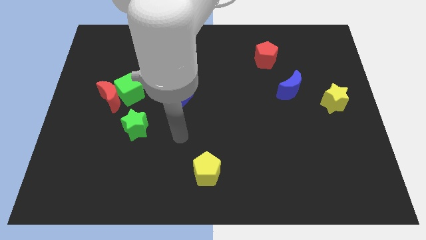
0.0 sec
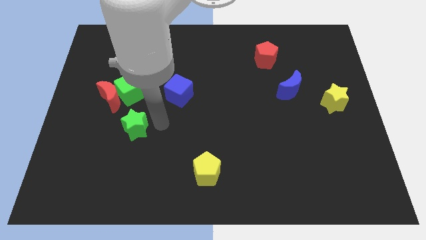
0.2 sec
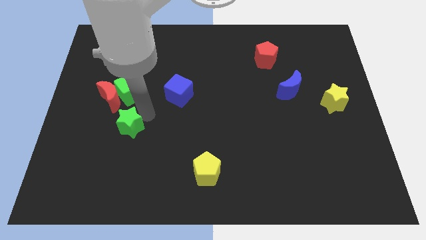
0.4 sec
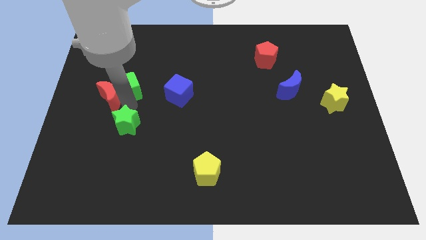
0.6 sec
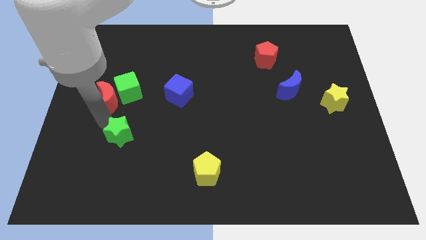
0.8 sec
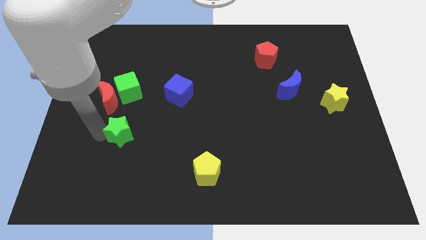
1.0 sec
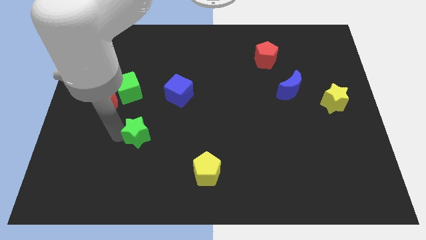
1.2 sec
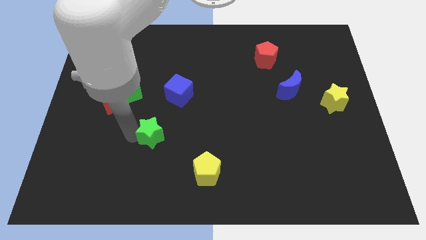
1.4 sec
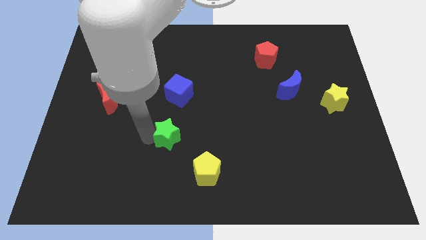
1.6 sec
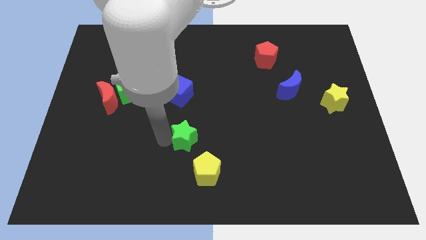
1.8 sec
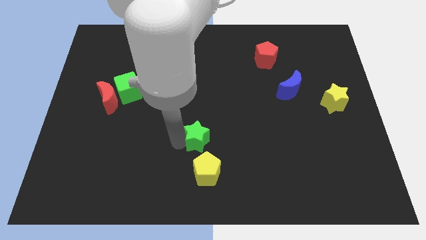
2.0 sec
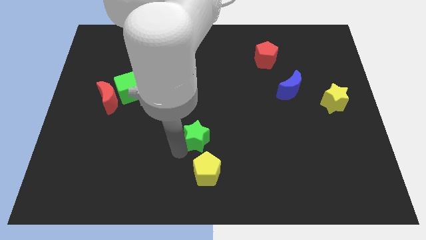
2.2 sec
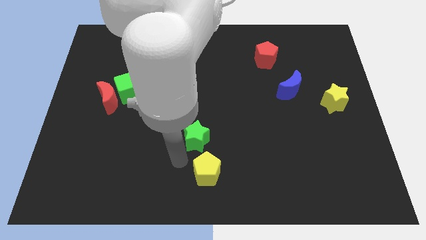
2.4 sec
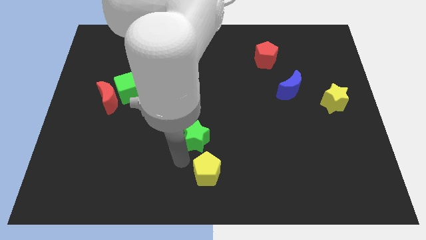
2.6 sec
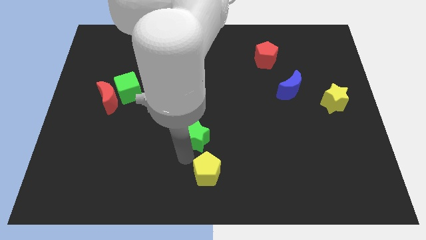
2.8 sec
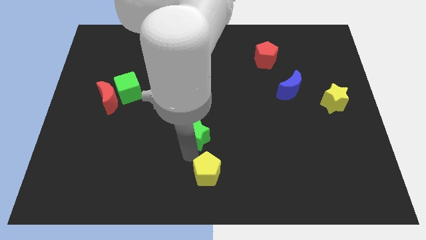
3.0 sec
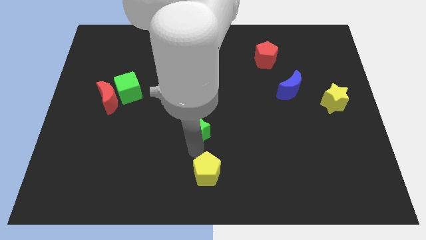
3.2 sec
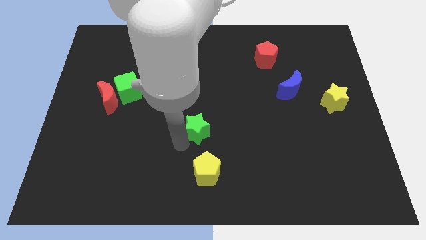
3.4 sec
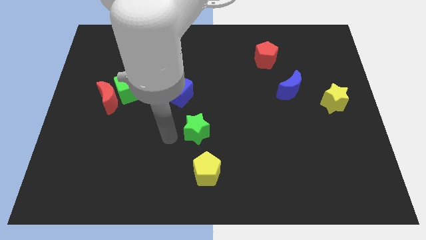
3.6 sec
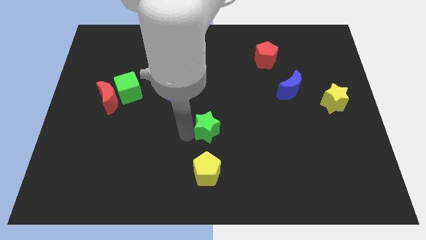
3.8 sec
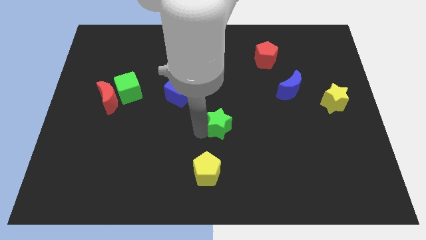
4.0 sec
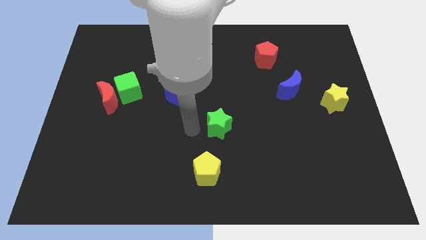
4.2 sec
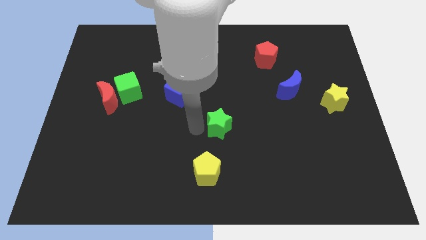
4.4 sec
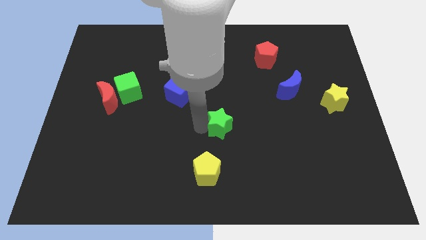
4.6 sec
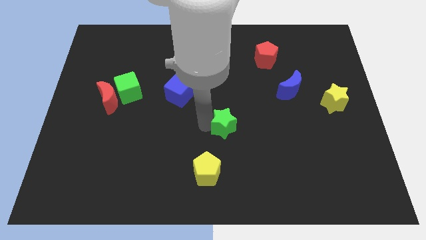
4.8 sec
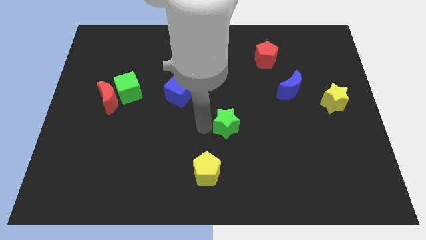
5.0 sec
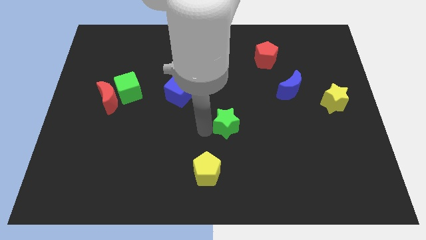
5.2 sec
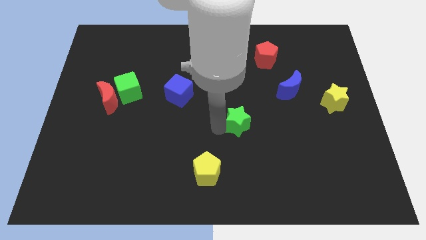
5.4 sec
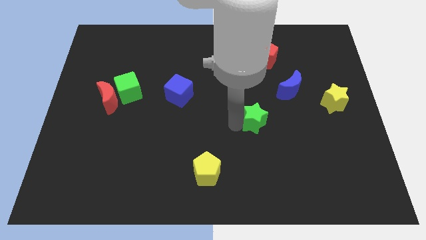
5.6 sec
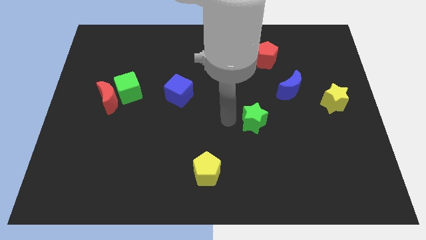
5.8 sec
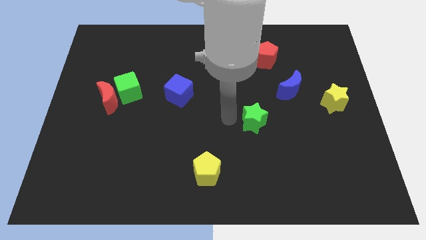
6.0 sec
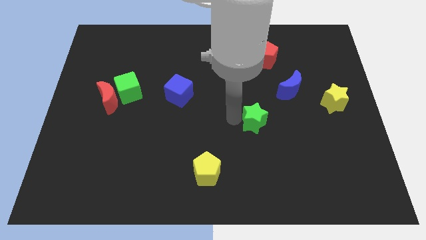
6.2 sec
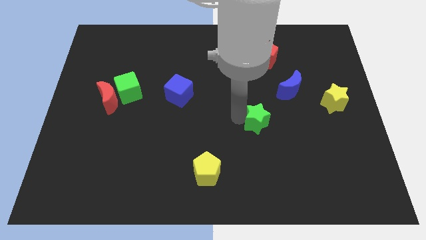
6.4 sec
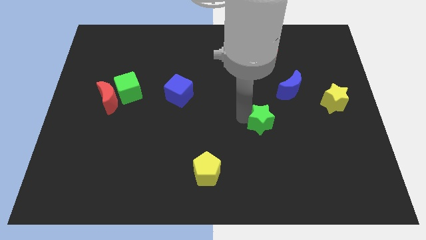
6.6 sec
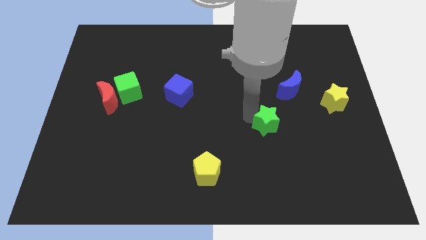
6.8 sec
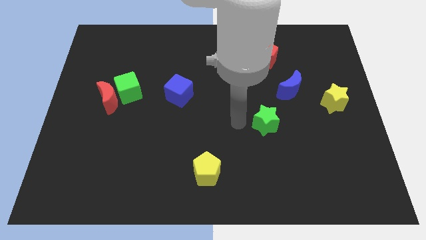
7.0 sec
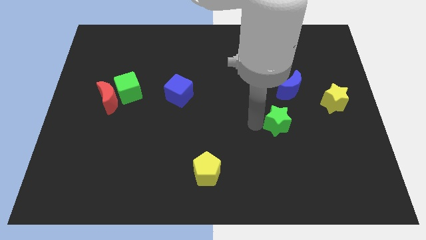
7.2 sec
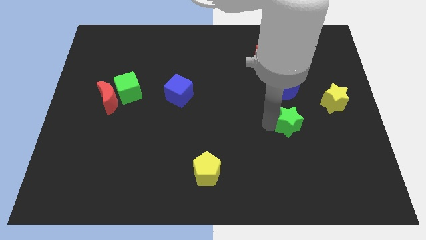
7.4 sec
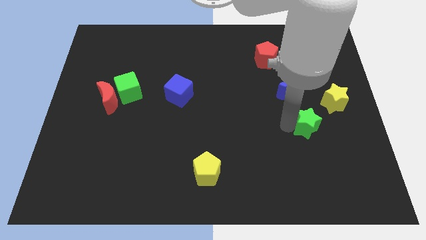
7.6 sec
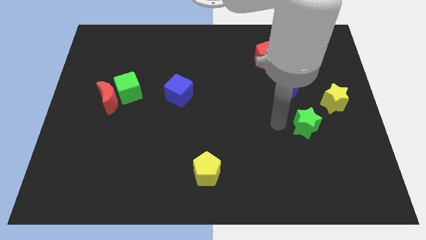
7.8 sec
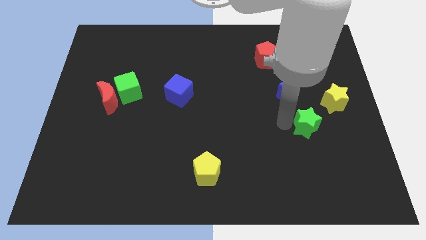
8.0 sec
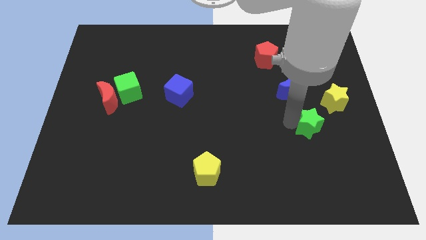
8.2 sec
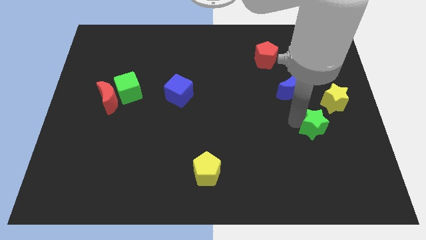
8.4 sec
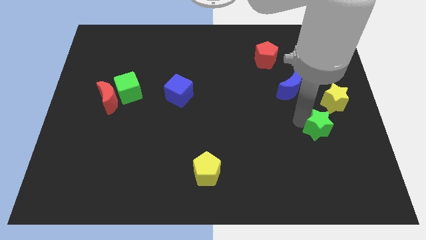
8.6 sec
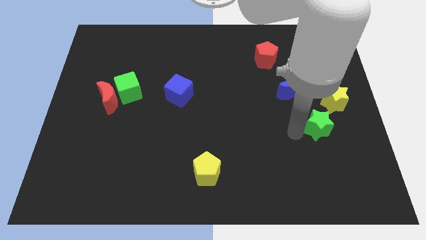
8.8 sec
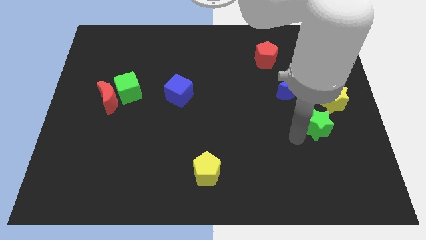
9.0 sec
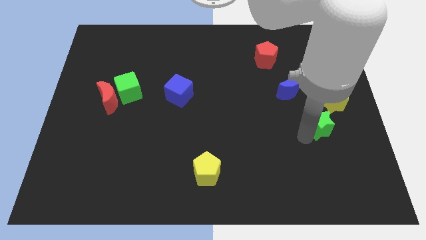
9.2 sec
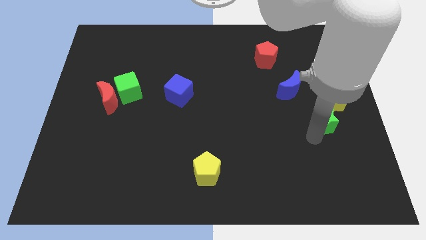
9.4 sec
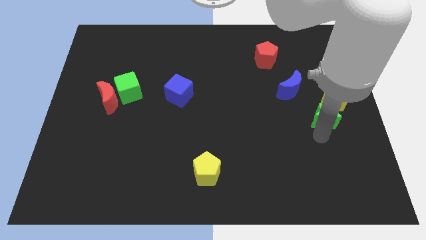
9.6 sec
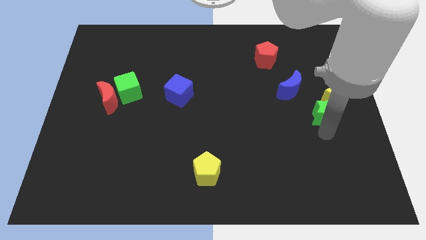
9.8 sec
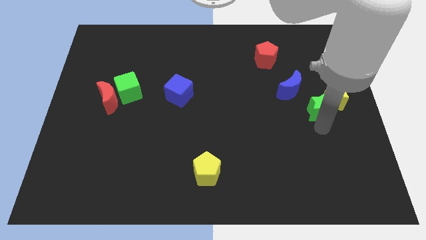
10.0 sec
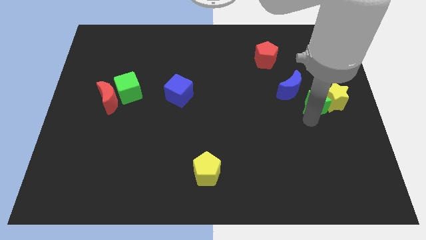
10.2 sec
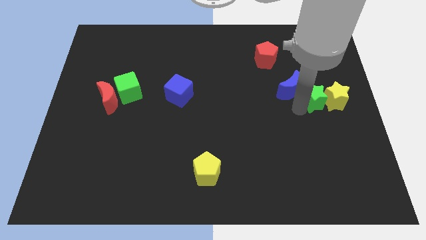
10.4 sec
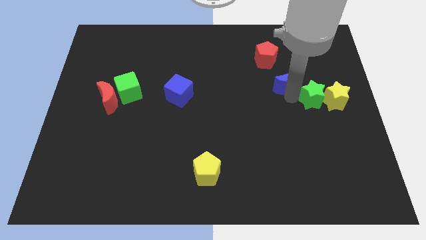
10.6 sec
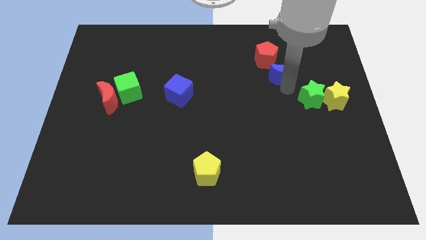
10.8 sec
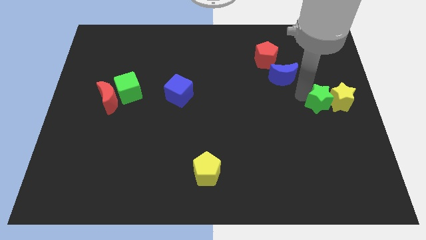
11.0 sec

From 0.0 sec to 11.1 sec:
move the green star to the center right

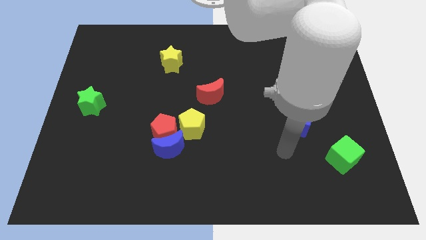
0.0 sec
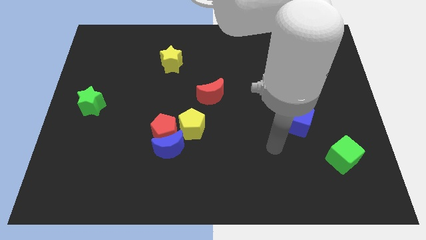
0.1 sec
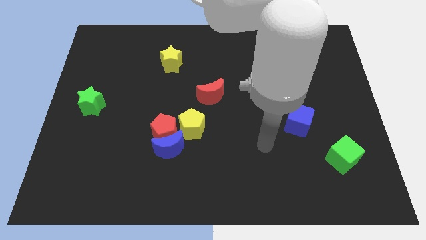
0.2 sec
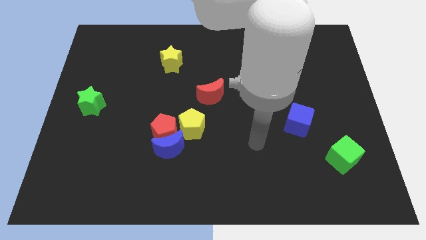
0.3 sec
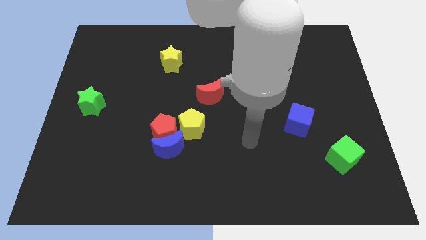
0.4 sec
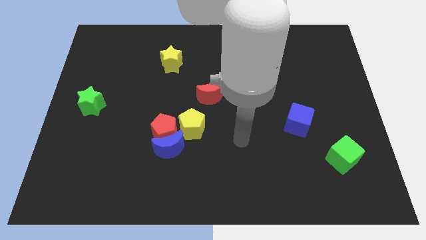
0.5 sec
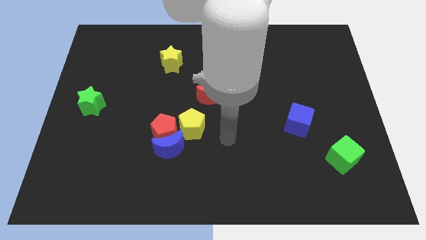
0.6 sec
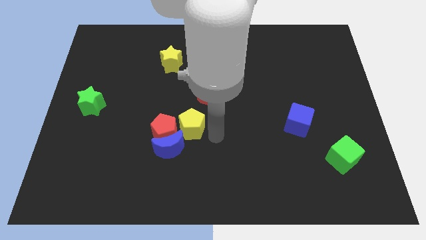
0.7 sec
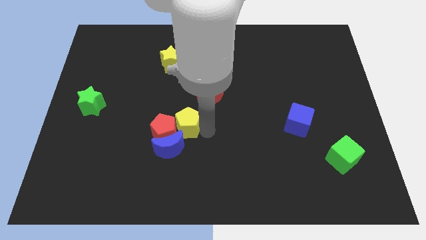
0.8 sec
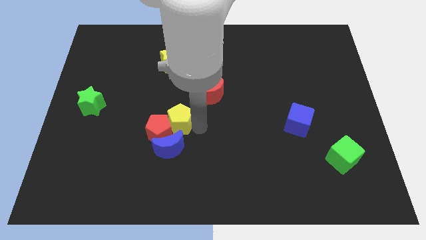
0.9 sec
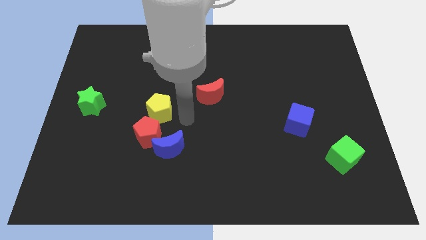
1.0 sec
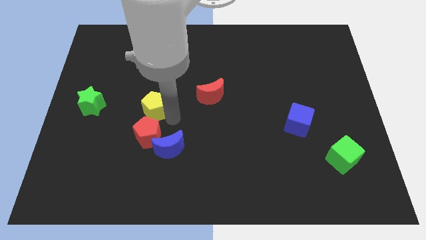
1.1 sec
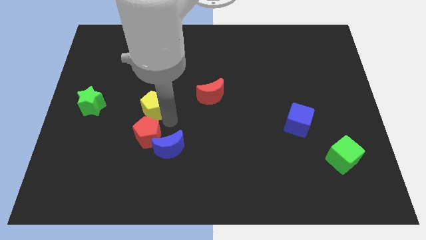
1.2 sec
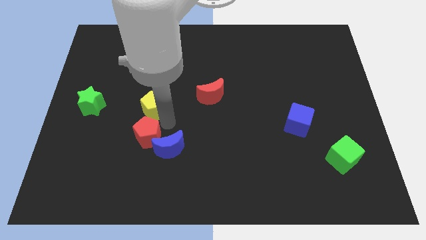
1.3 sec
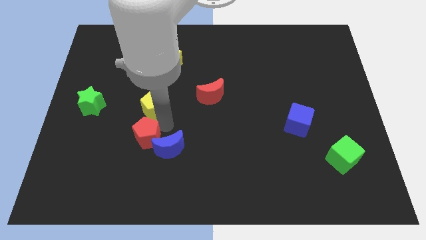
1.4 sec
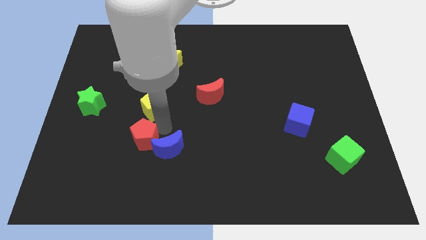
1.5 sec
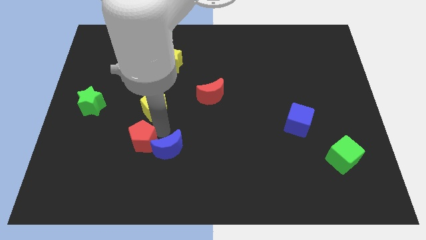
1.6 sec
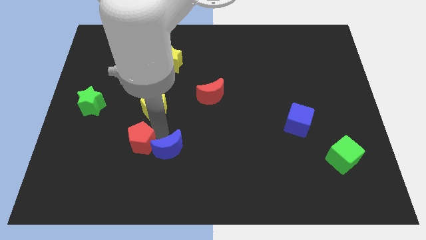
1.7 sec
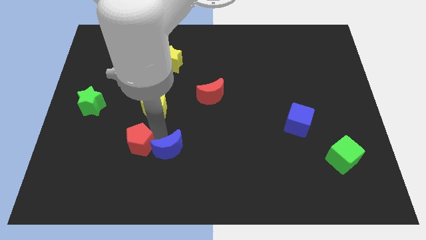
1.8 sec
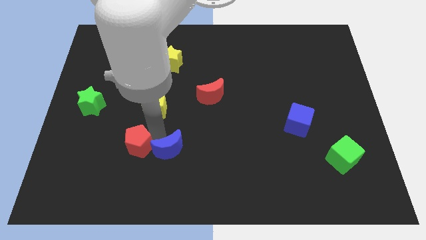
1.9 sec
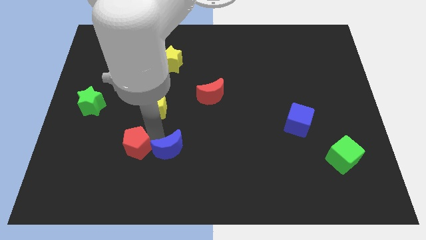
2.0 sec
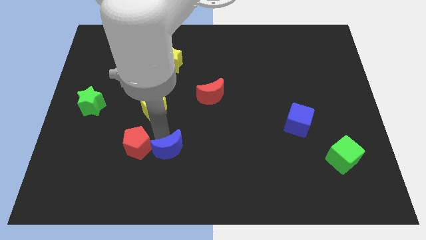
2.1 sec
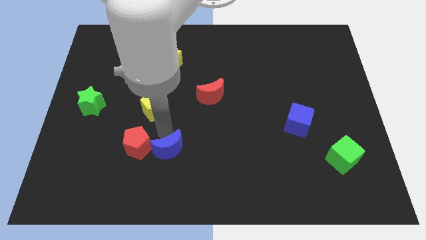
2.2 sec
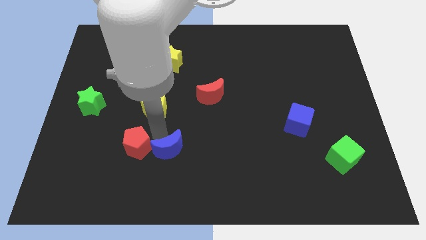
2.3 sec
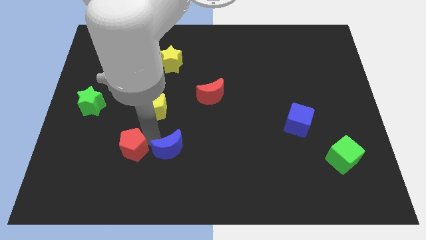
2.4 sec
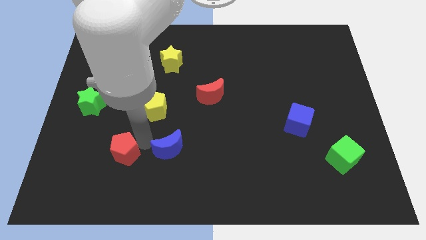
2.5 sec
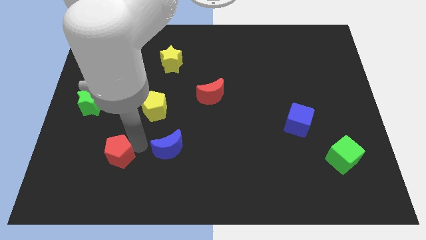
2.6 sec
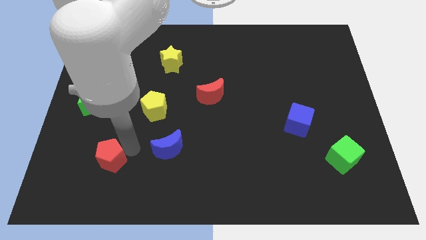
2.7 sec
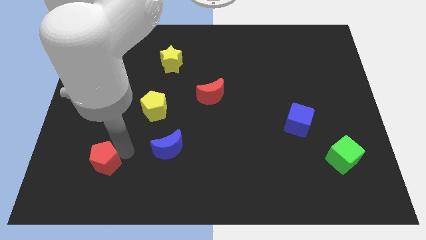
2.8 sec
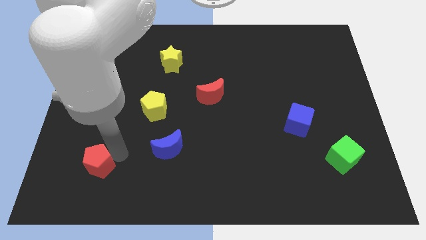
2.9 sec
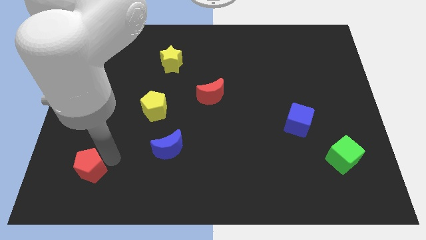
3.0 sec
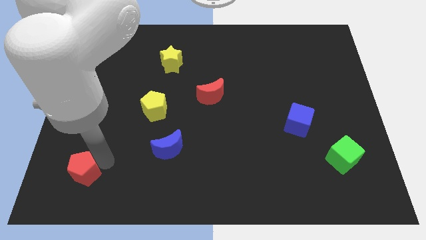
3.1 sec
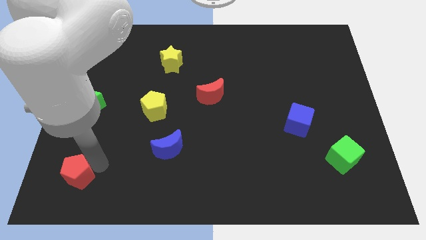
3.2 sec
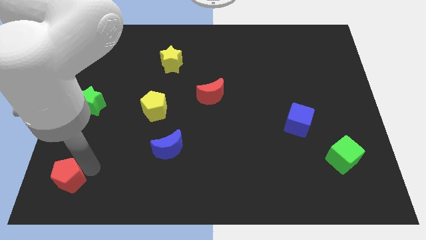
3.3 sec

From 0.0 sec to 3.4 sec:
move the red pentagon to the bottom left
